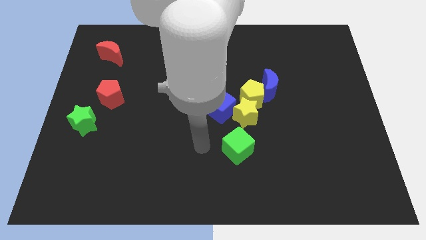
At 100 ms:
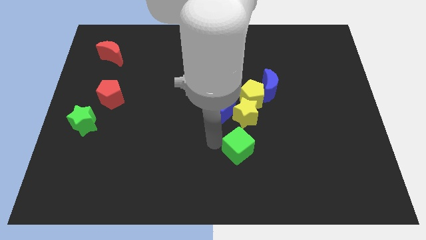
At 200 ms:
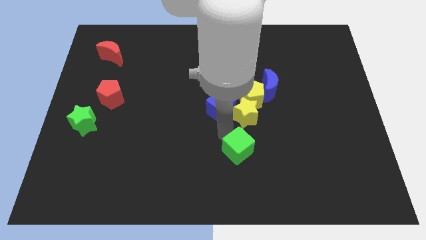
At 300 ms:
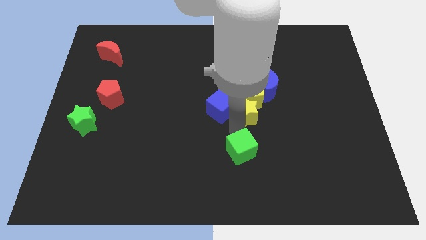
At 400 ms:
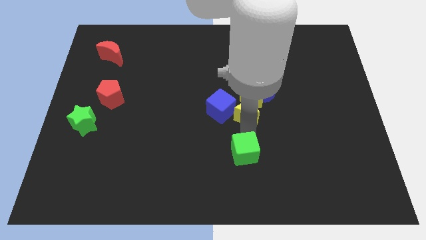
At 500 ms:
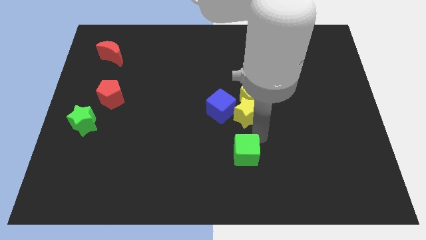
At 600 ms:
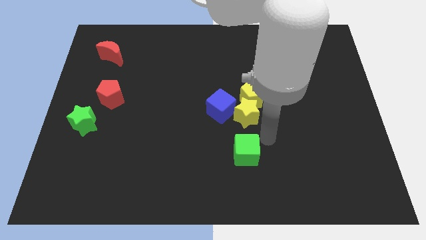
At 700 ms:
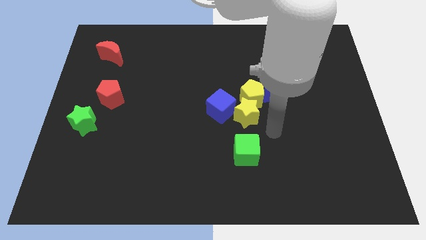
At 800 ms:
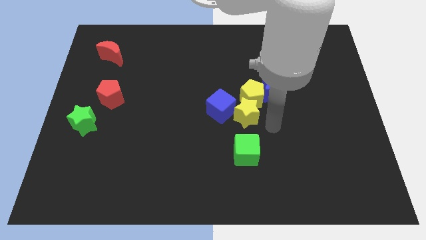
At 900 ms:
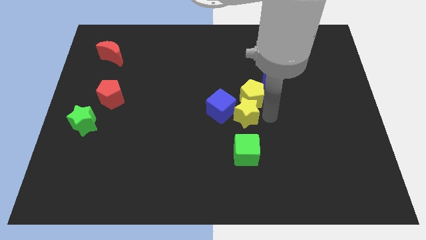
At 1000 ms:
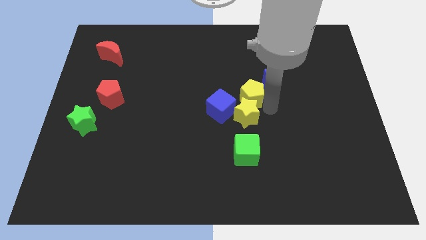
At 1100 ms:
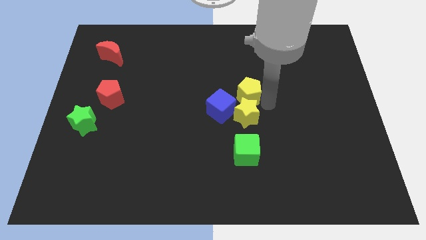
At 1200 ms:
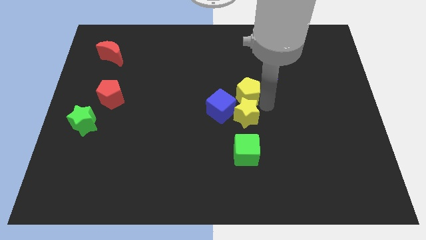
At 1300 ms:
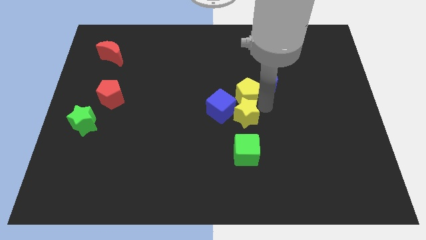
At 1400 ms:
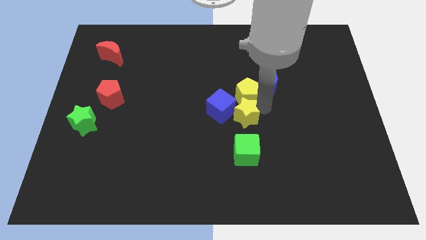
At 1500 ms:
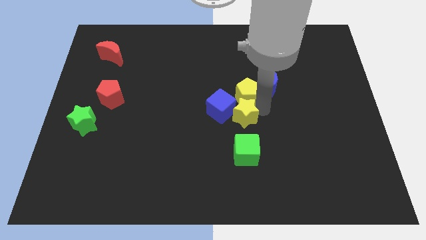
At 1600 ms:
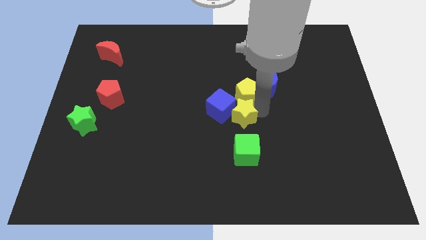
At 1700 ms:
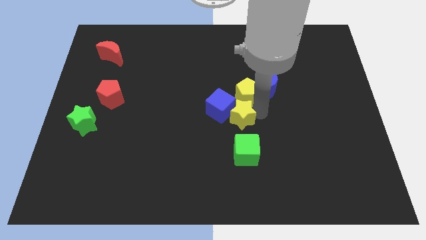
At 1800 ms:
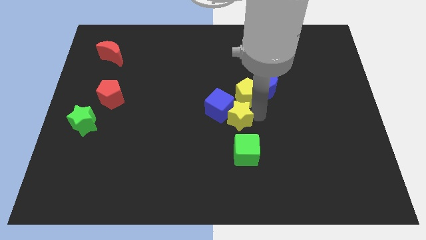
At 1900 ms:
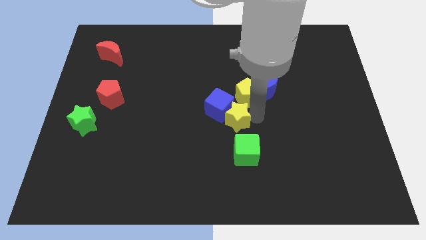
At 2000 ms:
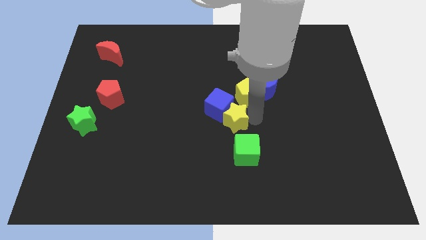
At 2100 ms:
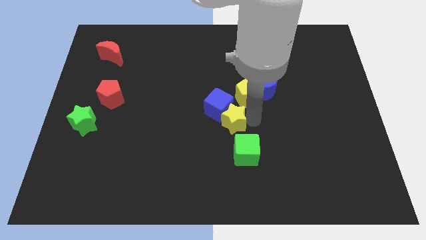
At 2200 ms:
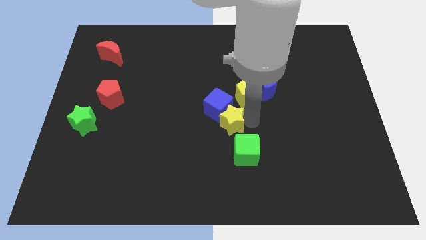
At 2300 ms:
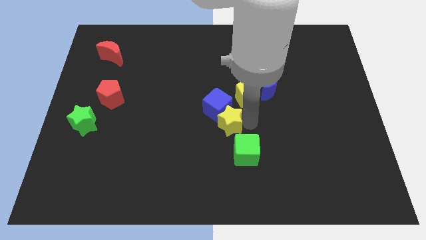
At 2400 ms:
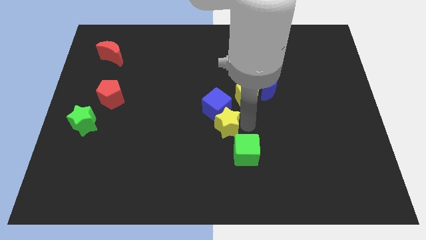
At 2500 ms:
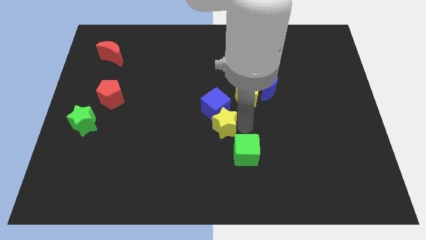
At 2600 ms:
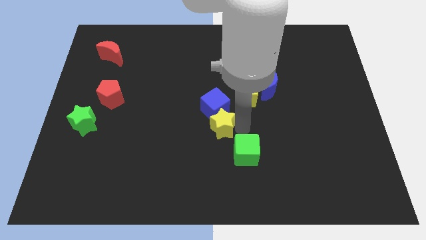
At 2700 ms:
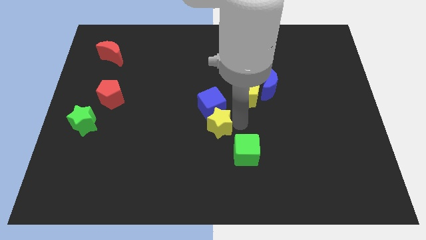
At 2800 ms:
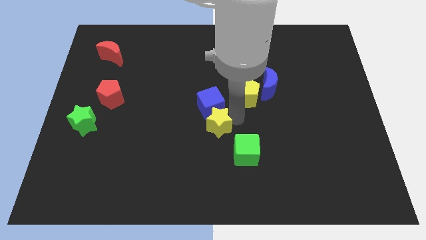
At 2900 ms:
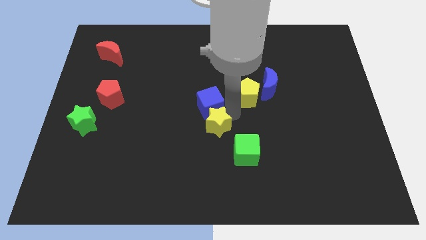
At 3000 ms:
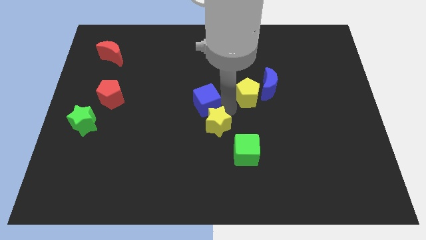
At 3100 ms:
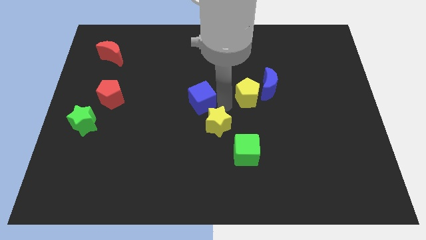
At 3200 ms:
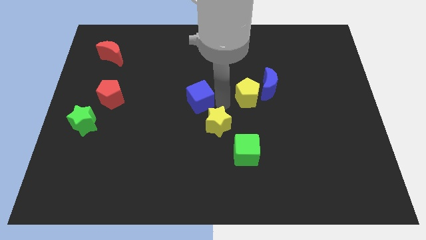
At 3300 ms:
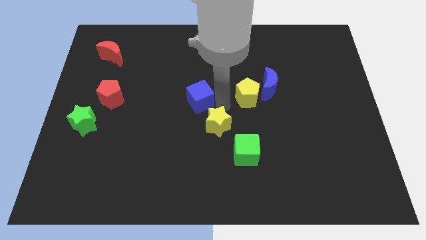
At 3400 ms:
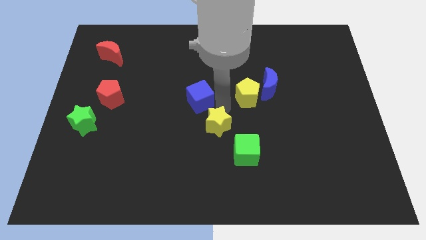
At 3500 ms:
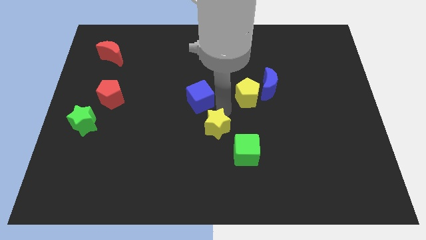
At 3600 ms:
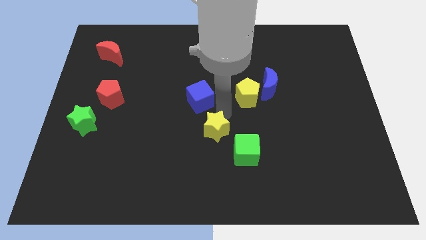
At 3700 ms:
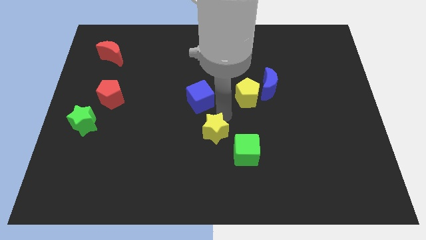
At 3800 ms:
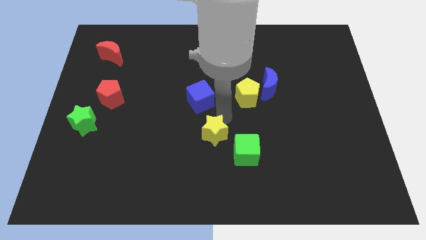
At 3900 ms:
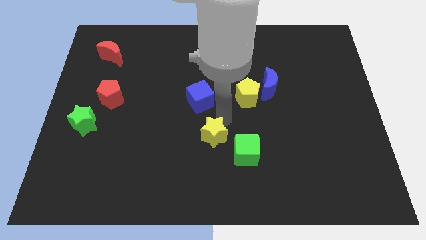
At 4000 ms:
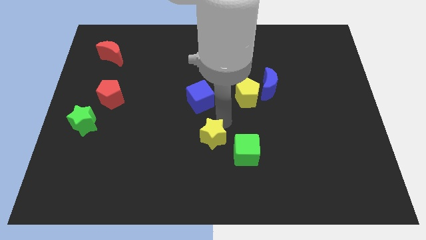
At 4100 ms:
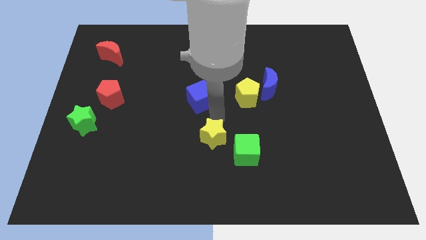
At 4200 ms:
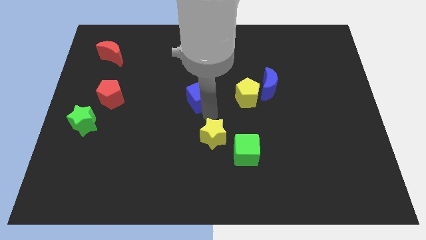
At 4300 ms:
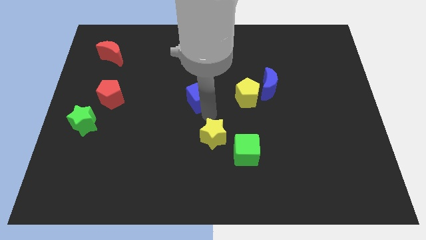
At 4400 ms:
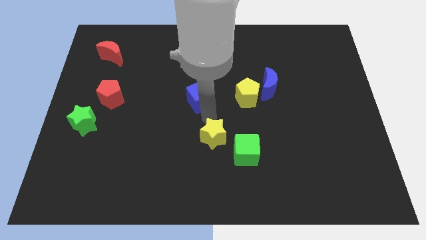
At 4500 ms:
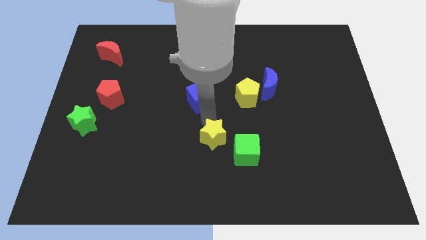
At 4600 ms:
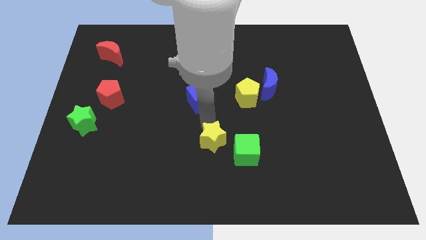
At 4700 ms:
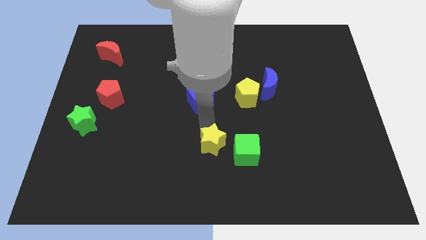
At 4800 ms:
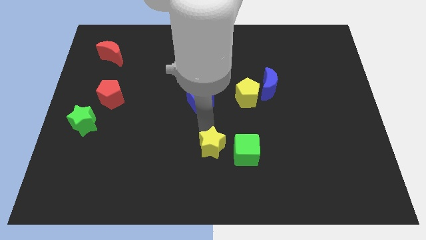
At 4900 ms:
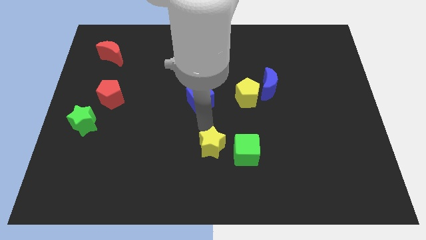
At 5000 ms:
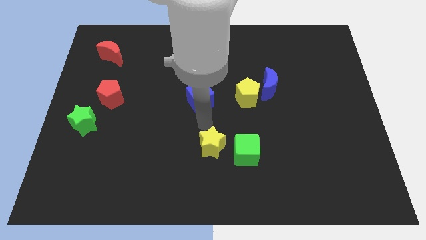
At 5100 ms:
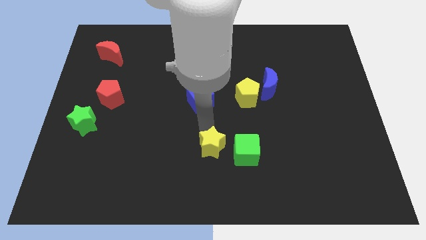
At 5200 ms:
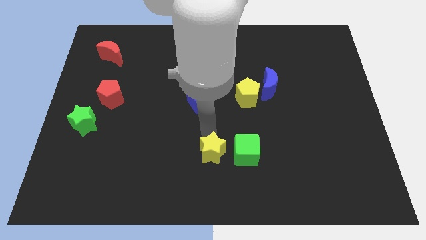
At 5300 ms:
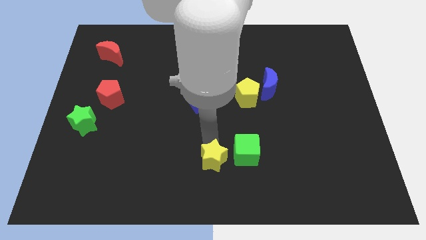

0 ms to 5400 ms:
put the yellow star to the bottom left of the green cube

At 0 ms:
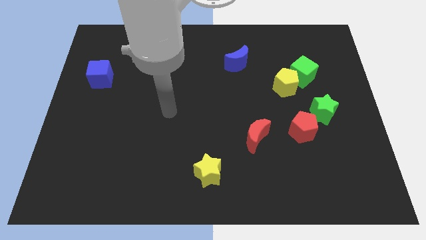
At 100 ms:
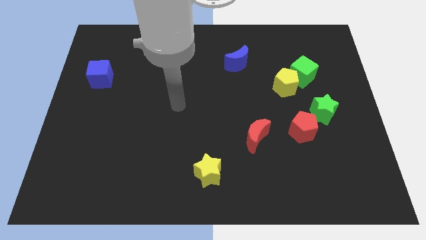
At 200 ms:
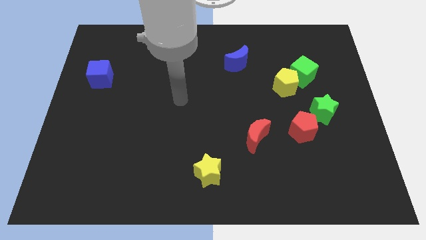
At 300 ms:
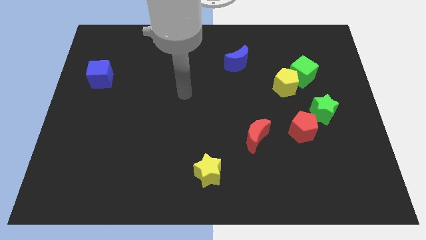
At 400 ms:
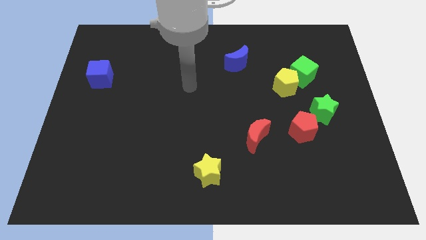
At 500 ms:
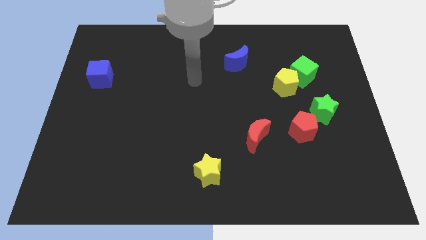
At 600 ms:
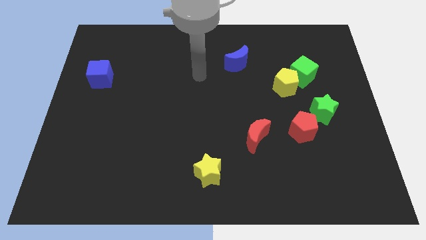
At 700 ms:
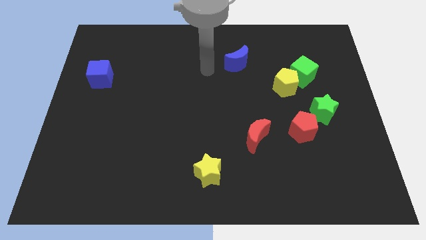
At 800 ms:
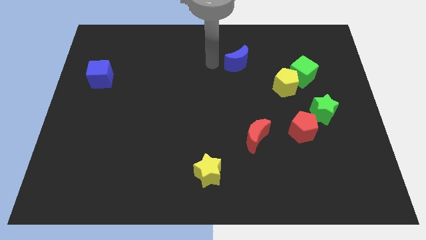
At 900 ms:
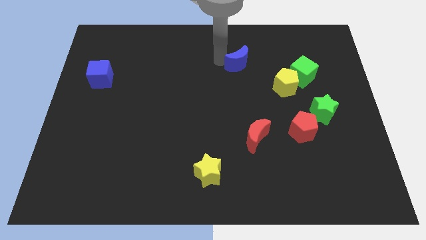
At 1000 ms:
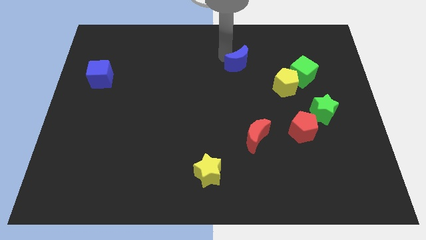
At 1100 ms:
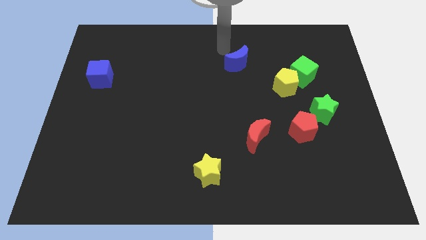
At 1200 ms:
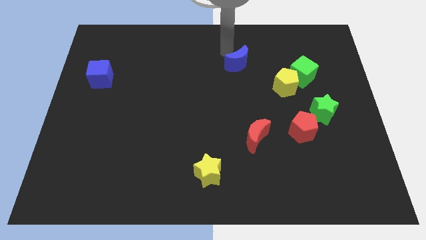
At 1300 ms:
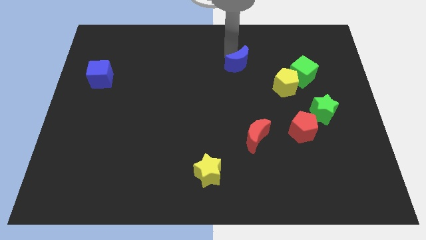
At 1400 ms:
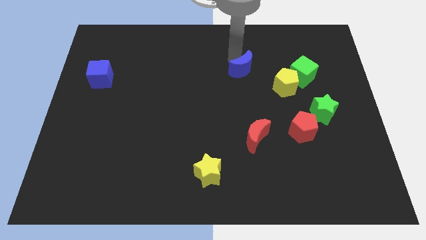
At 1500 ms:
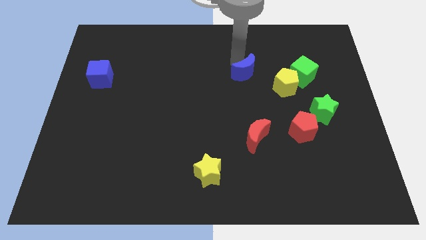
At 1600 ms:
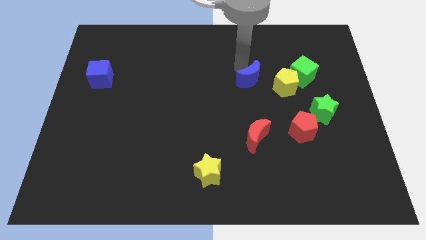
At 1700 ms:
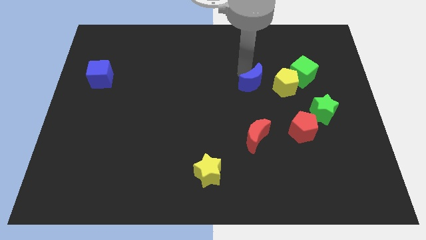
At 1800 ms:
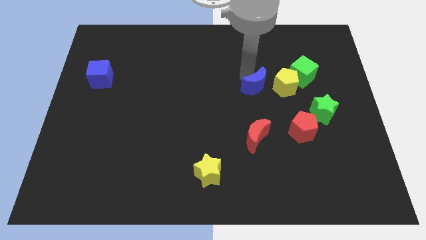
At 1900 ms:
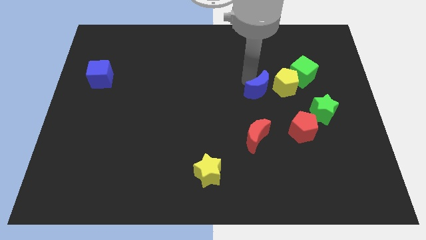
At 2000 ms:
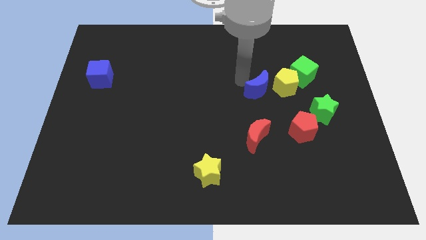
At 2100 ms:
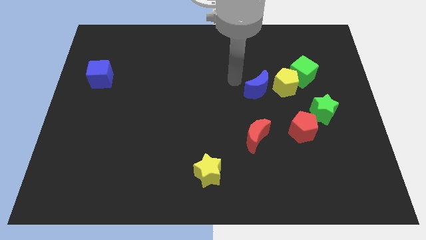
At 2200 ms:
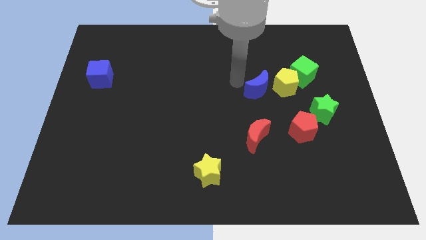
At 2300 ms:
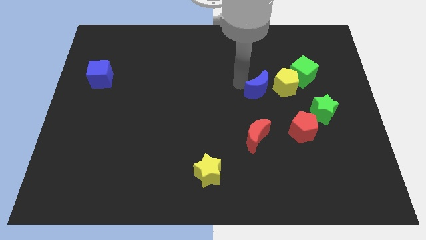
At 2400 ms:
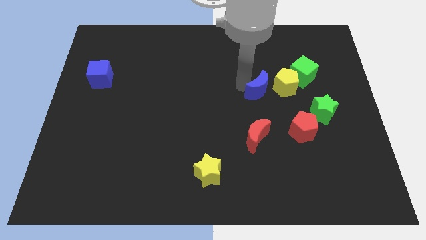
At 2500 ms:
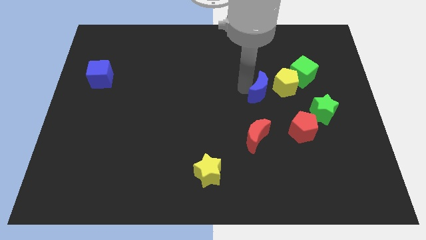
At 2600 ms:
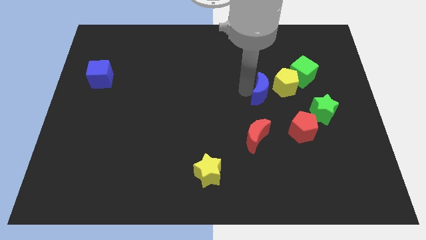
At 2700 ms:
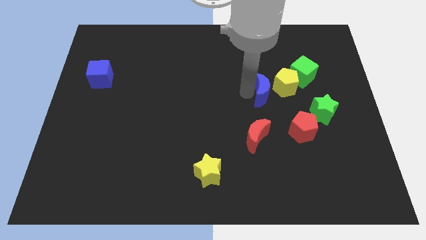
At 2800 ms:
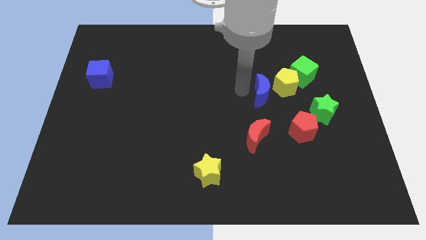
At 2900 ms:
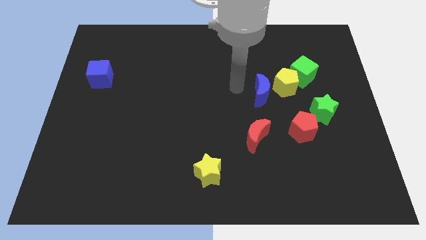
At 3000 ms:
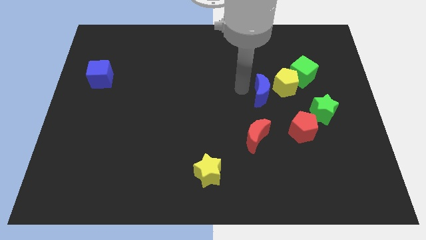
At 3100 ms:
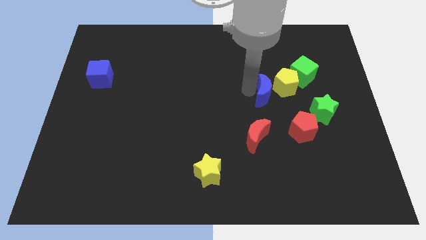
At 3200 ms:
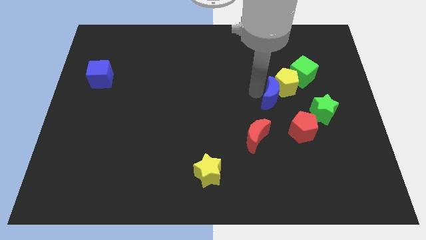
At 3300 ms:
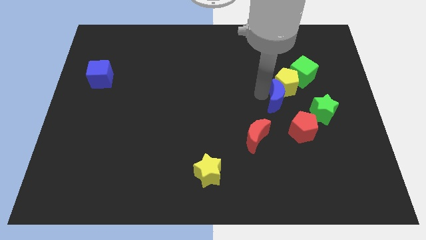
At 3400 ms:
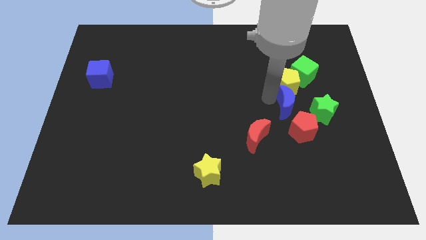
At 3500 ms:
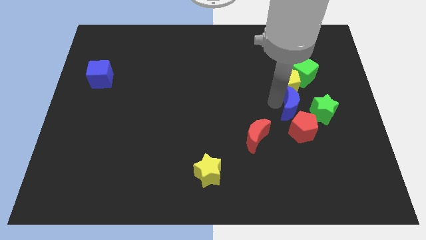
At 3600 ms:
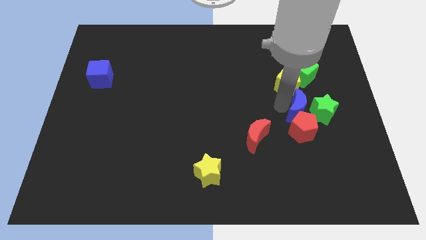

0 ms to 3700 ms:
put the blue moon to the top right side of the red pentagon
